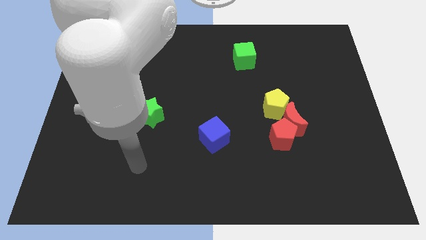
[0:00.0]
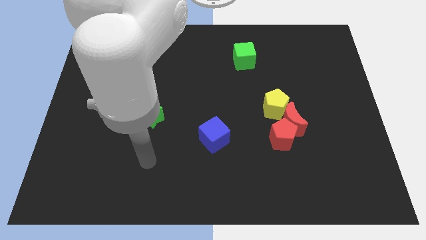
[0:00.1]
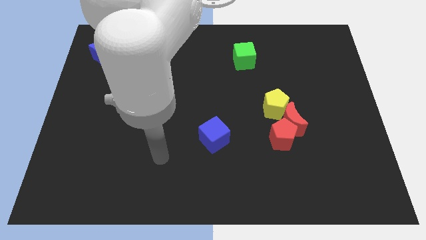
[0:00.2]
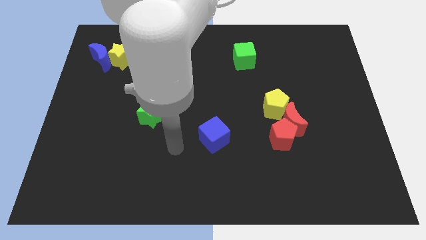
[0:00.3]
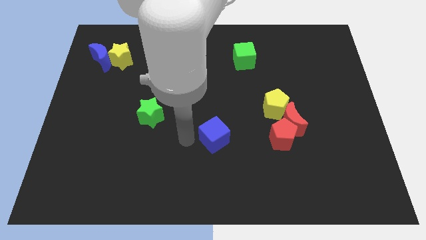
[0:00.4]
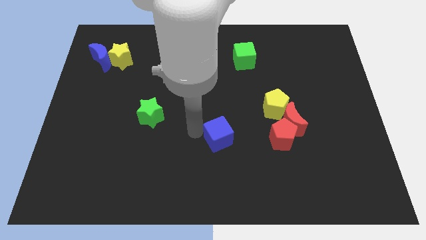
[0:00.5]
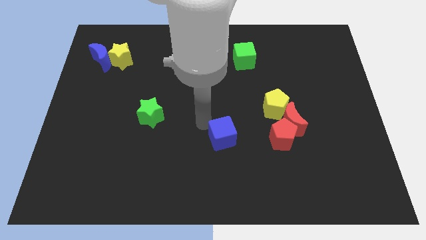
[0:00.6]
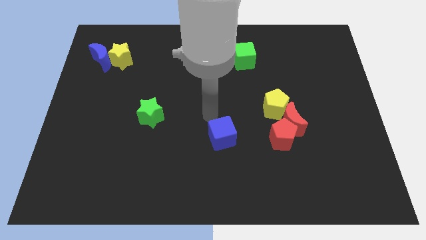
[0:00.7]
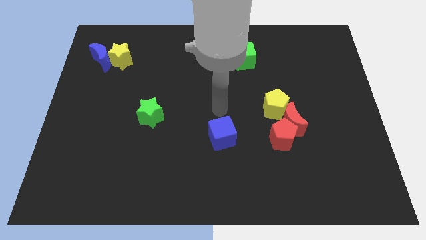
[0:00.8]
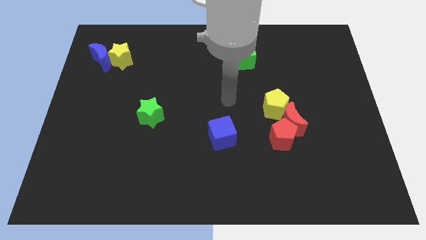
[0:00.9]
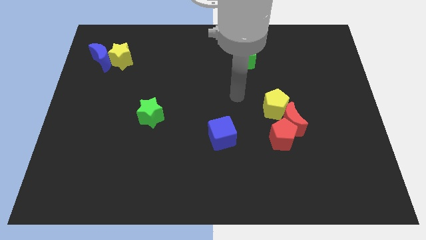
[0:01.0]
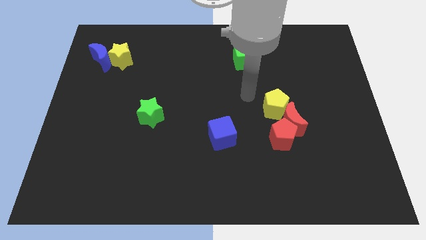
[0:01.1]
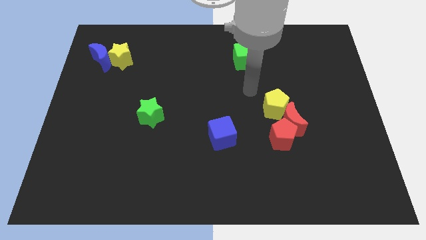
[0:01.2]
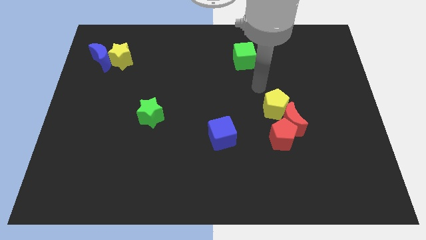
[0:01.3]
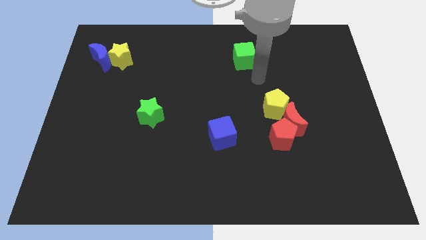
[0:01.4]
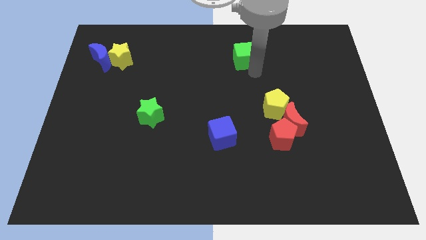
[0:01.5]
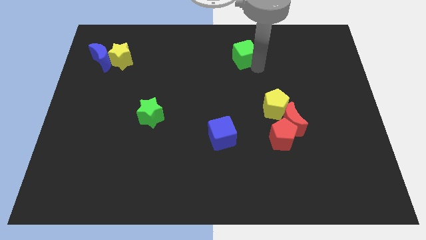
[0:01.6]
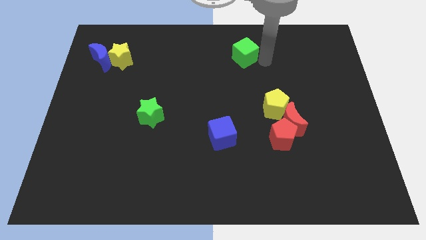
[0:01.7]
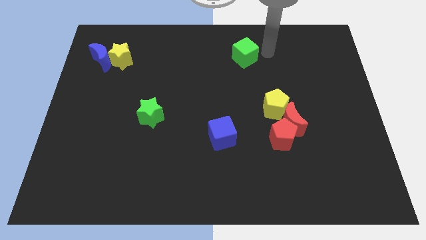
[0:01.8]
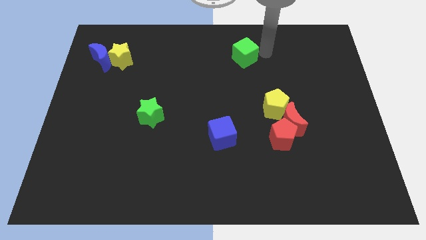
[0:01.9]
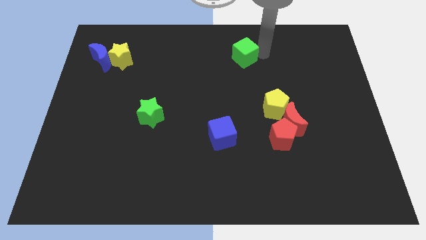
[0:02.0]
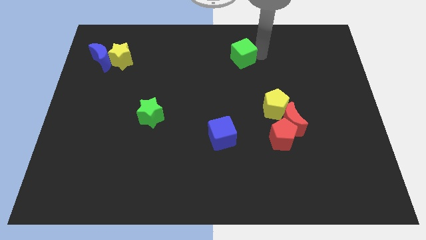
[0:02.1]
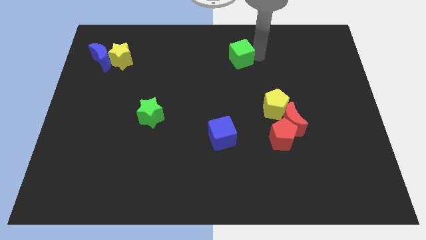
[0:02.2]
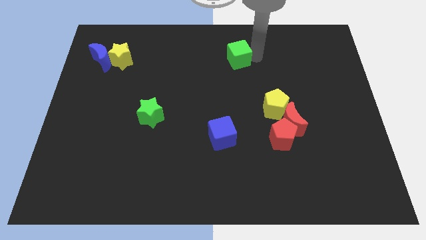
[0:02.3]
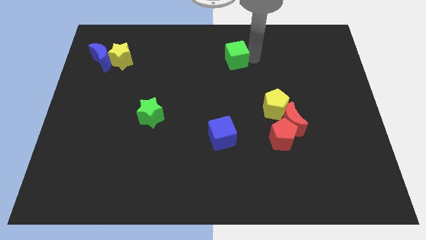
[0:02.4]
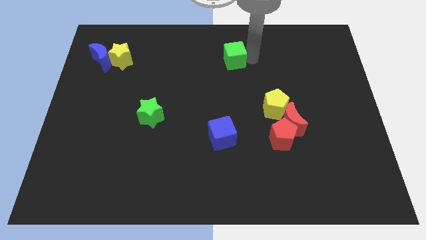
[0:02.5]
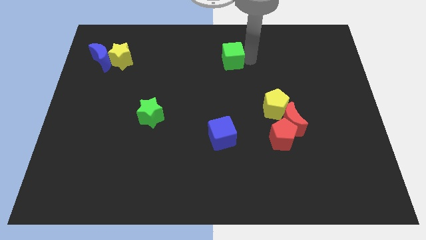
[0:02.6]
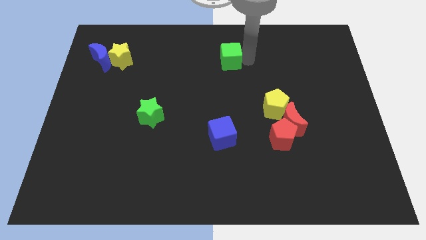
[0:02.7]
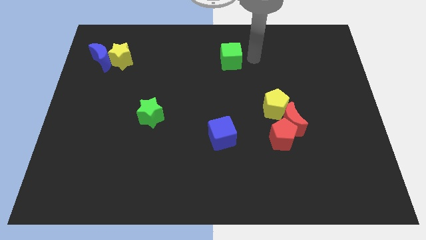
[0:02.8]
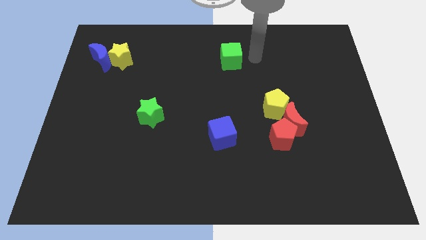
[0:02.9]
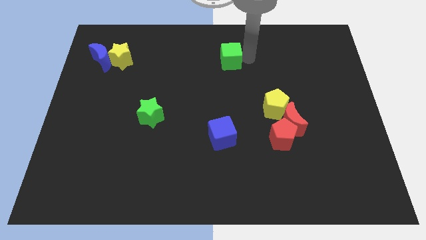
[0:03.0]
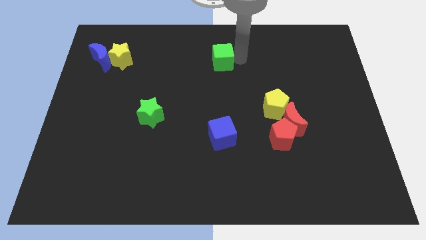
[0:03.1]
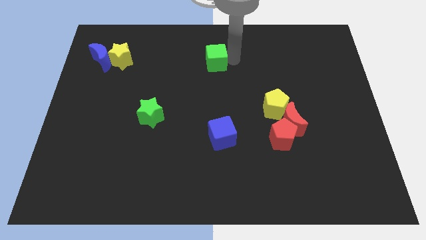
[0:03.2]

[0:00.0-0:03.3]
slightly slide the green cube to the left

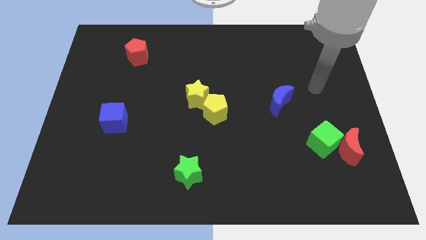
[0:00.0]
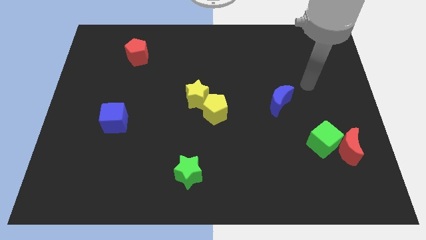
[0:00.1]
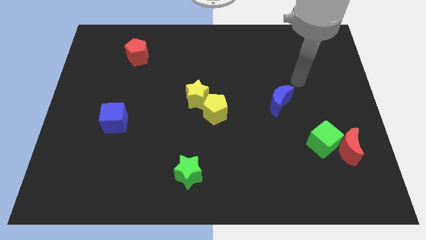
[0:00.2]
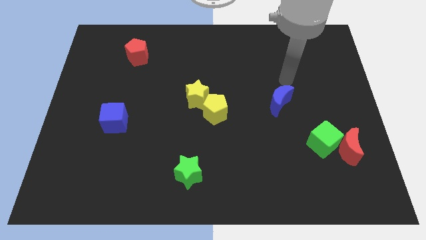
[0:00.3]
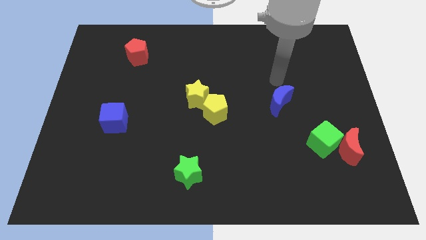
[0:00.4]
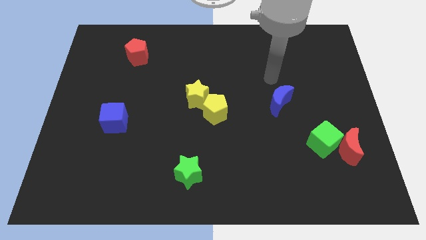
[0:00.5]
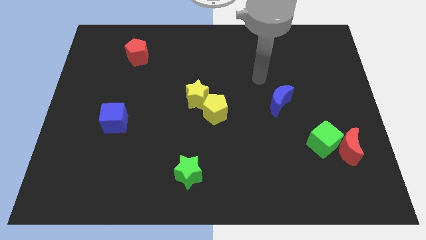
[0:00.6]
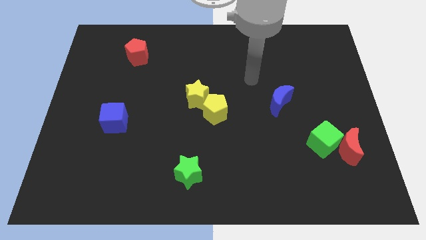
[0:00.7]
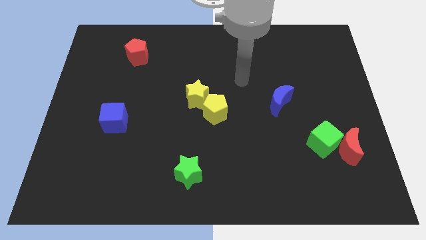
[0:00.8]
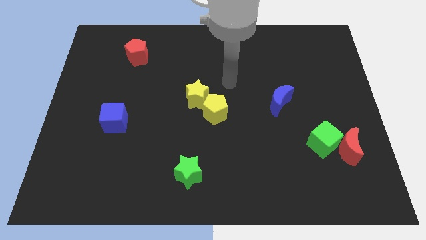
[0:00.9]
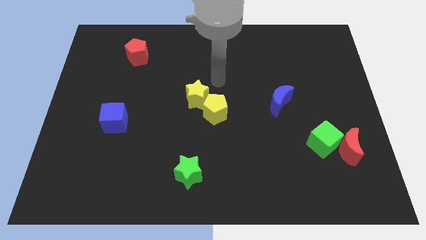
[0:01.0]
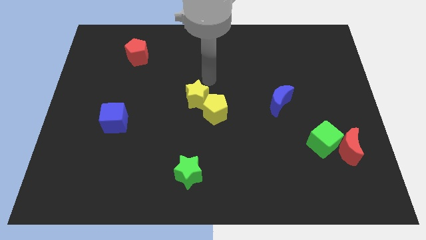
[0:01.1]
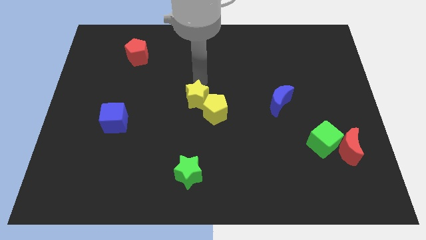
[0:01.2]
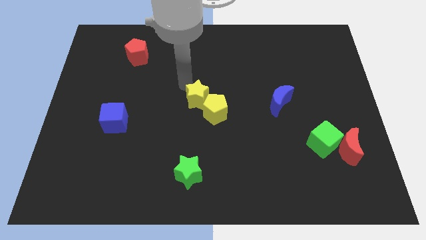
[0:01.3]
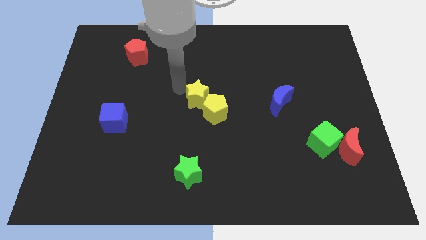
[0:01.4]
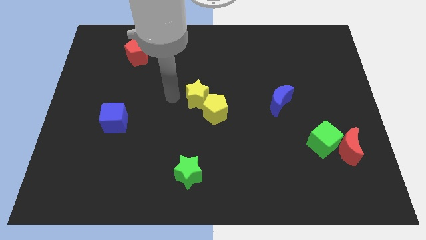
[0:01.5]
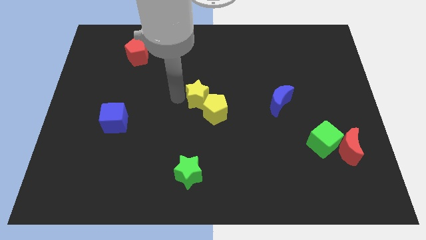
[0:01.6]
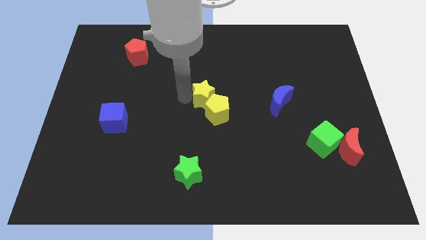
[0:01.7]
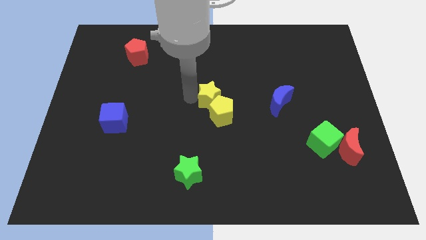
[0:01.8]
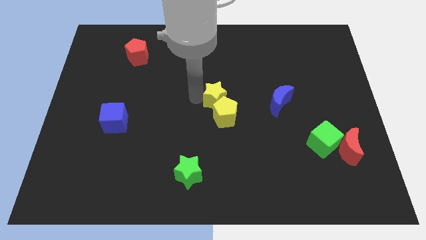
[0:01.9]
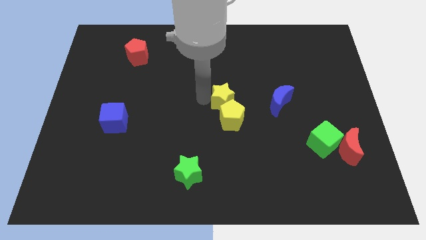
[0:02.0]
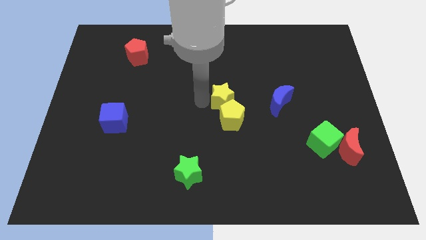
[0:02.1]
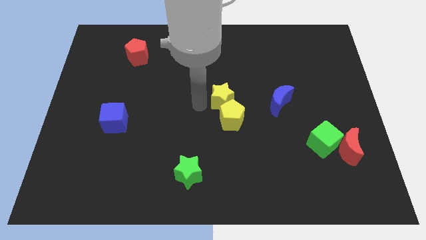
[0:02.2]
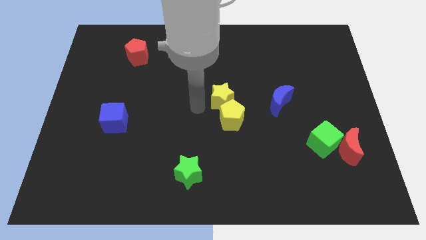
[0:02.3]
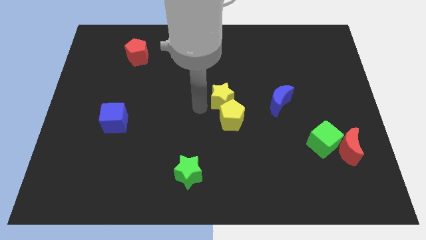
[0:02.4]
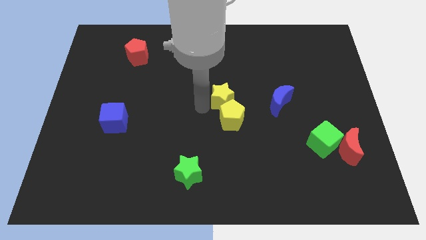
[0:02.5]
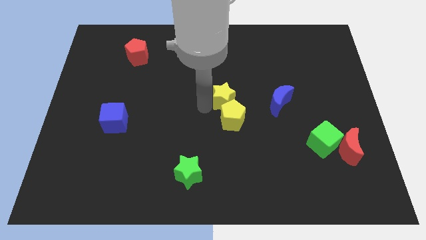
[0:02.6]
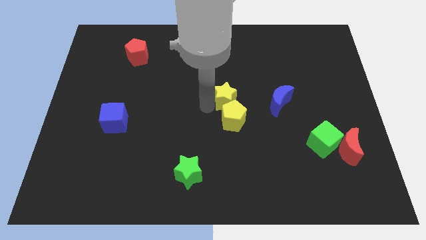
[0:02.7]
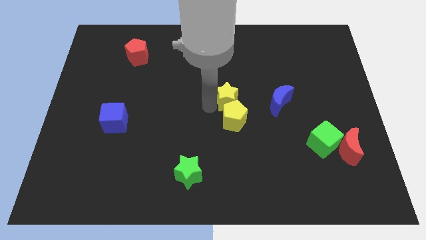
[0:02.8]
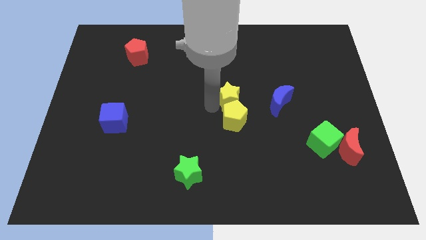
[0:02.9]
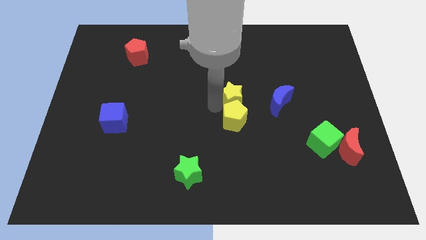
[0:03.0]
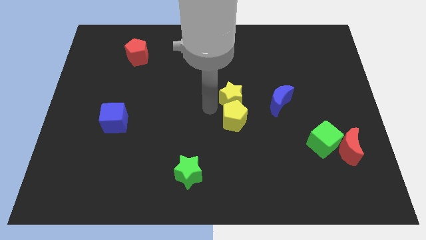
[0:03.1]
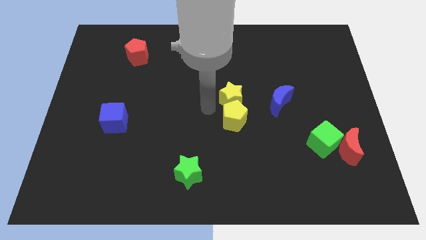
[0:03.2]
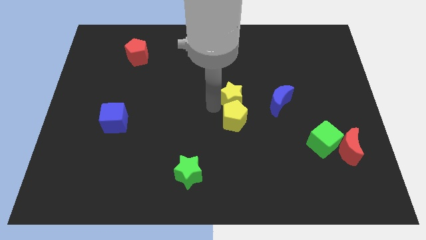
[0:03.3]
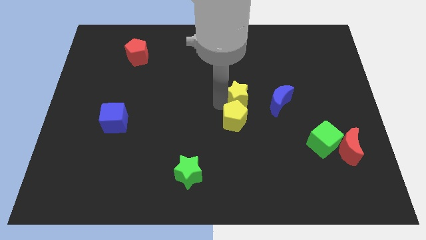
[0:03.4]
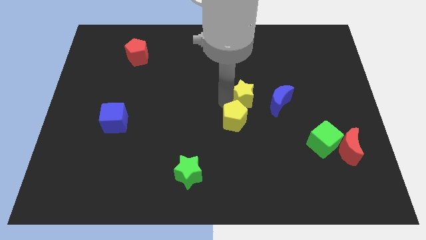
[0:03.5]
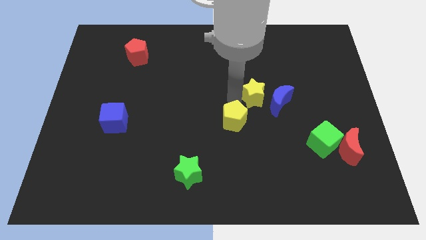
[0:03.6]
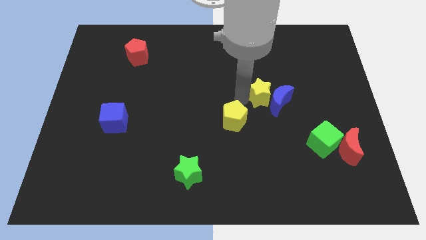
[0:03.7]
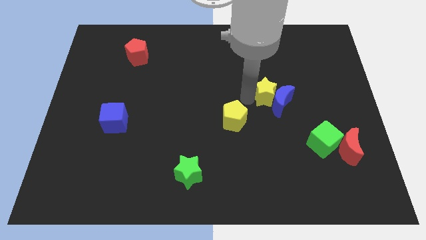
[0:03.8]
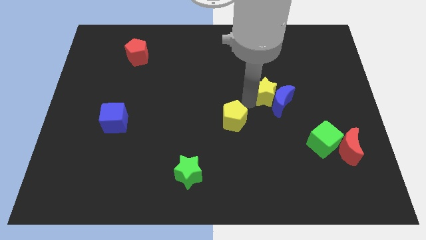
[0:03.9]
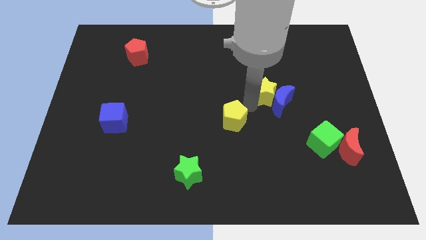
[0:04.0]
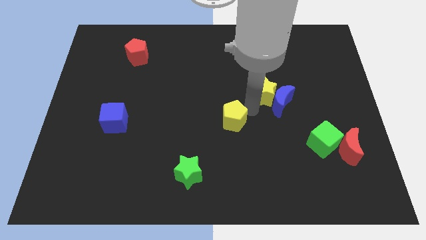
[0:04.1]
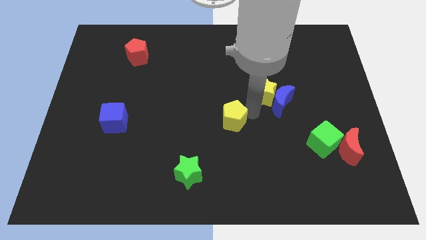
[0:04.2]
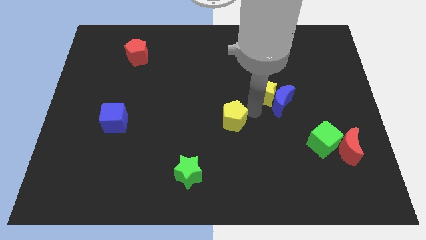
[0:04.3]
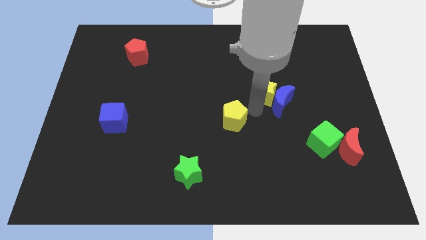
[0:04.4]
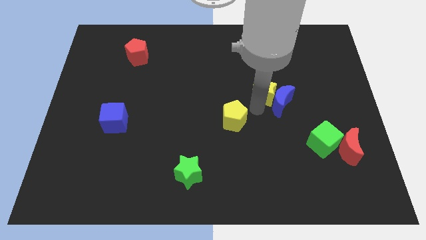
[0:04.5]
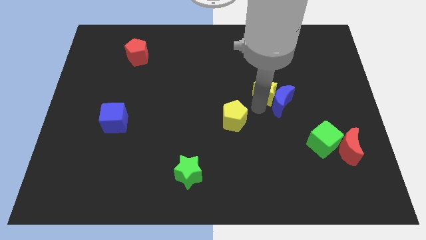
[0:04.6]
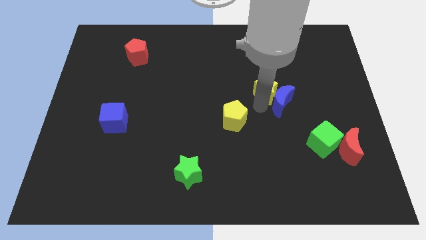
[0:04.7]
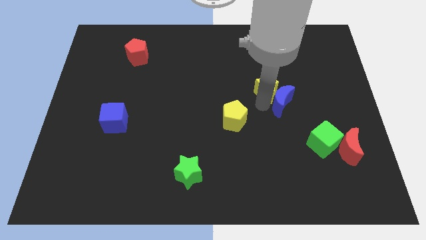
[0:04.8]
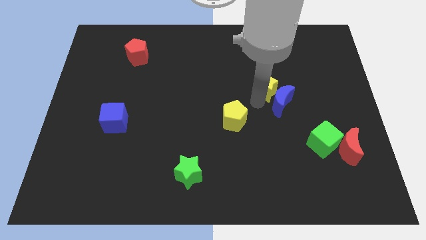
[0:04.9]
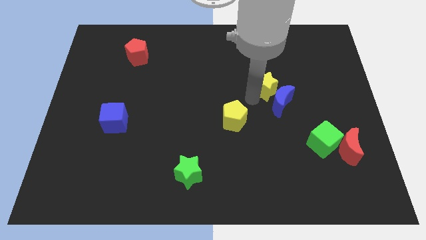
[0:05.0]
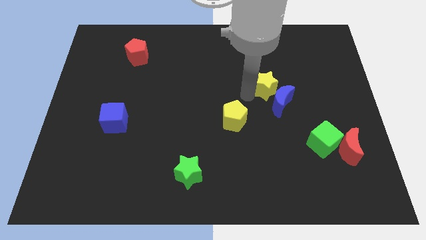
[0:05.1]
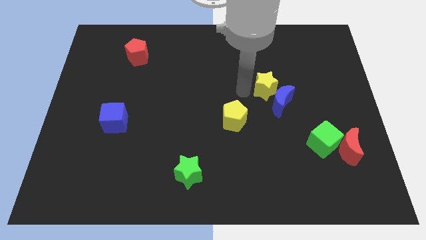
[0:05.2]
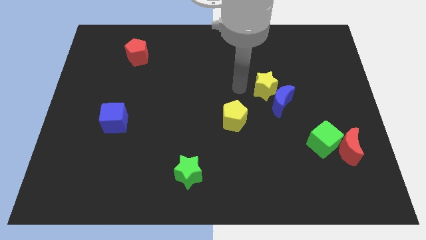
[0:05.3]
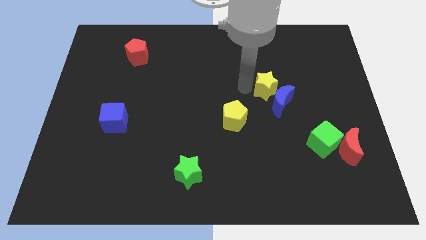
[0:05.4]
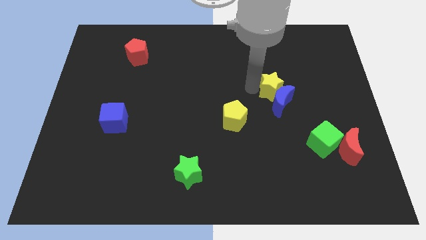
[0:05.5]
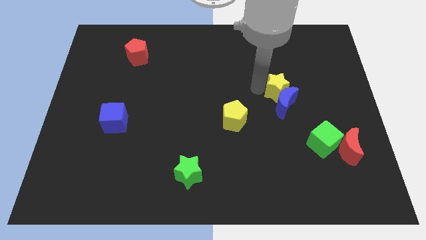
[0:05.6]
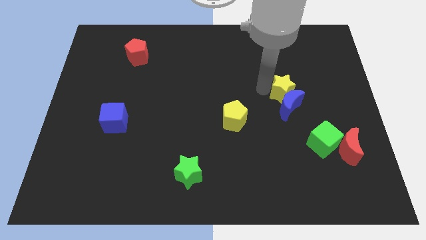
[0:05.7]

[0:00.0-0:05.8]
move the yellow star right
